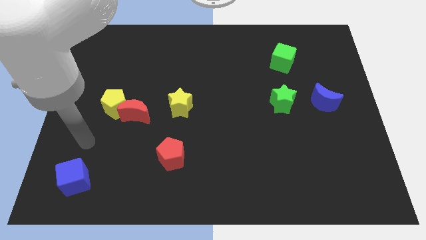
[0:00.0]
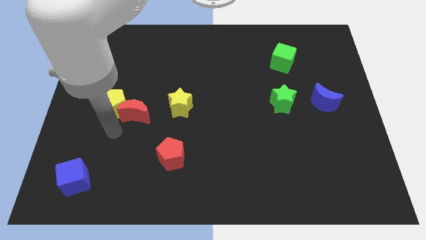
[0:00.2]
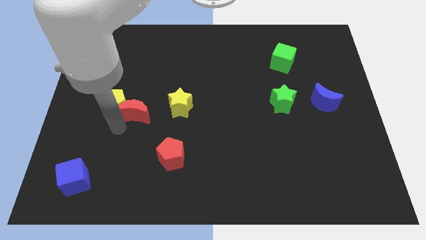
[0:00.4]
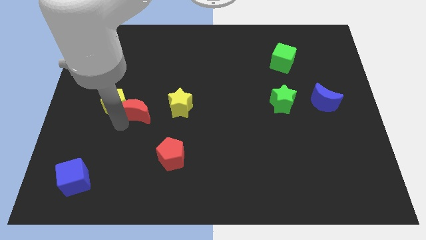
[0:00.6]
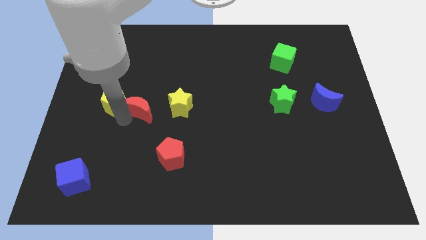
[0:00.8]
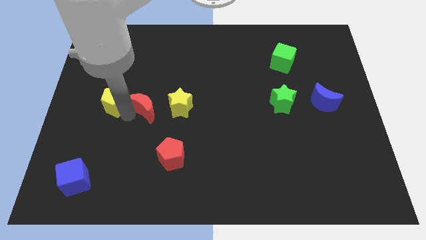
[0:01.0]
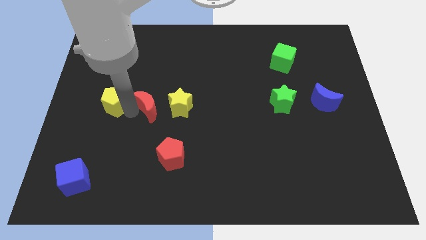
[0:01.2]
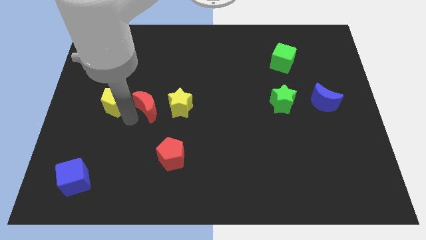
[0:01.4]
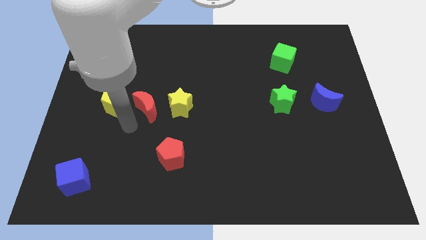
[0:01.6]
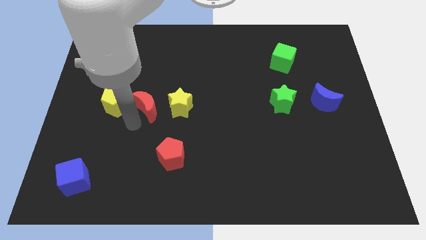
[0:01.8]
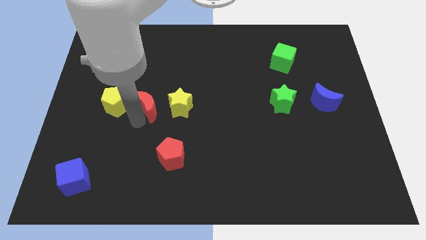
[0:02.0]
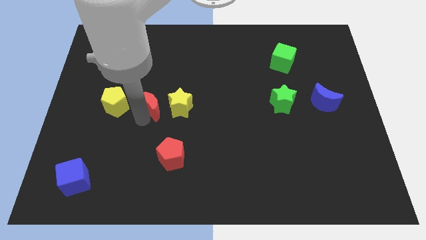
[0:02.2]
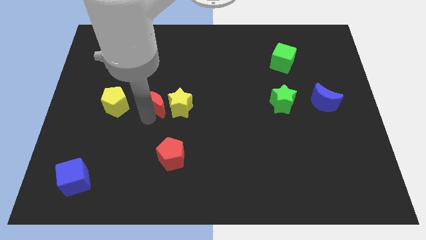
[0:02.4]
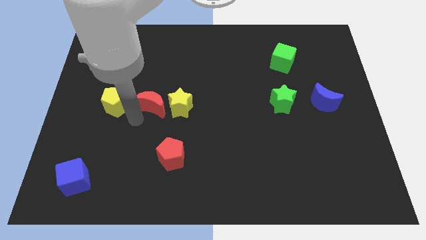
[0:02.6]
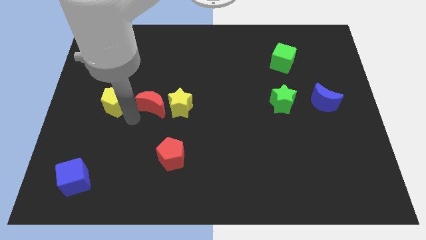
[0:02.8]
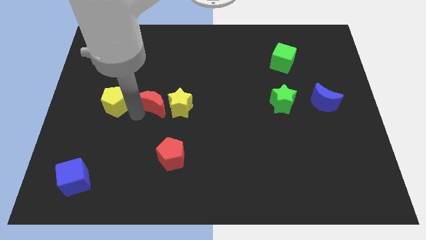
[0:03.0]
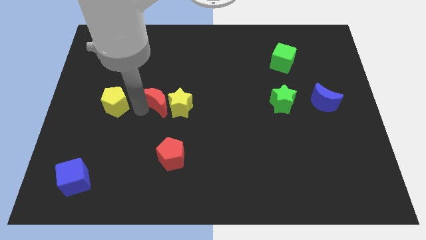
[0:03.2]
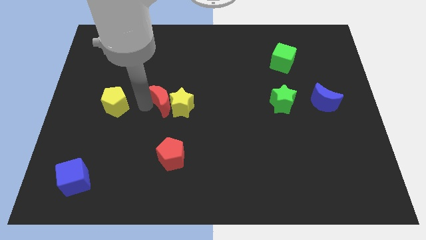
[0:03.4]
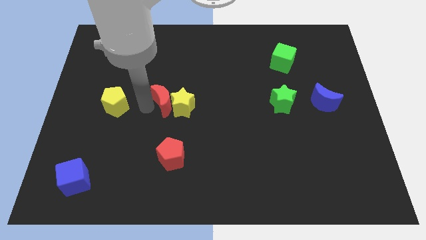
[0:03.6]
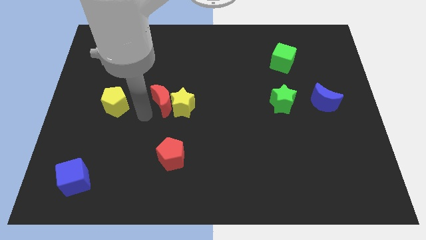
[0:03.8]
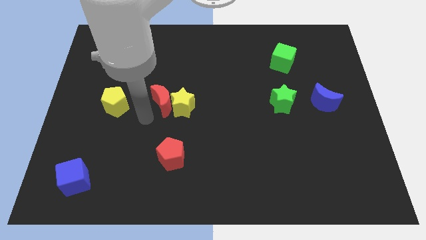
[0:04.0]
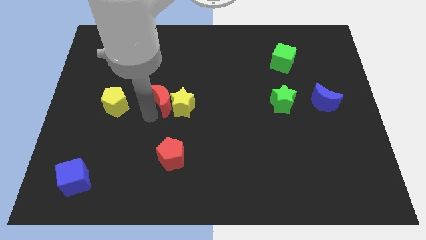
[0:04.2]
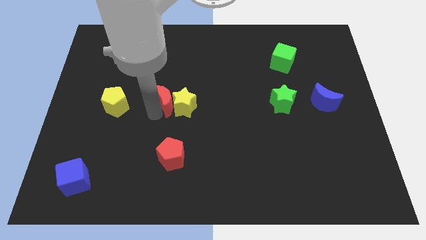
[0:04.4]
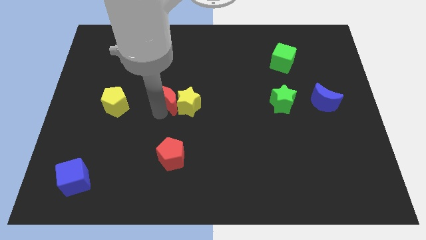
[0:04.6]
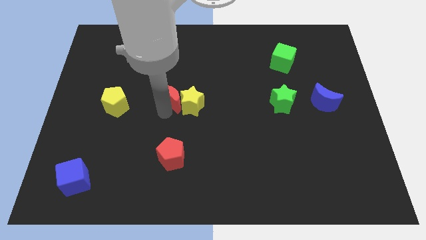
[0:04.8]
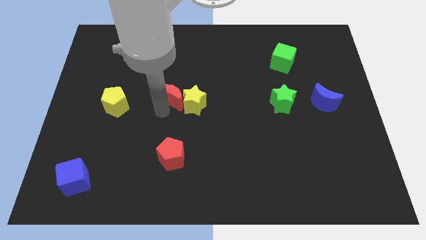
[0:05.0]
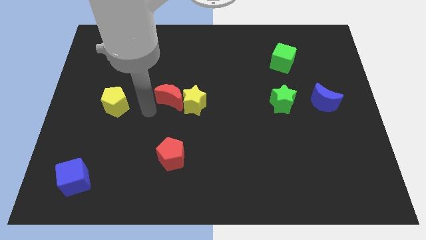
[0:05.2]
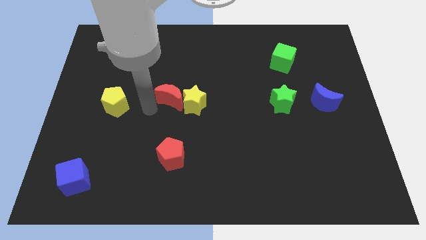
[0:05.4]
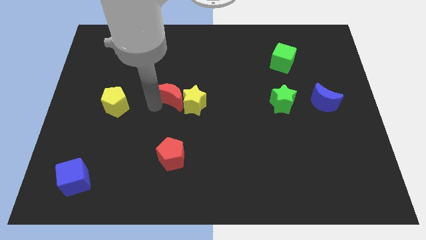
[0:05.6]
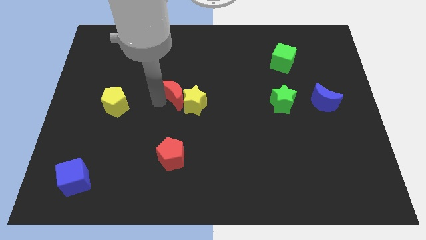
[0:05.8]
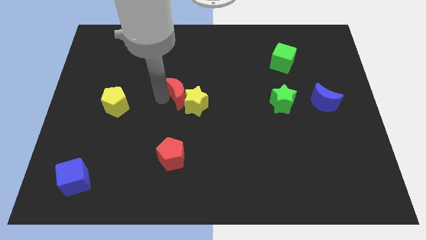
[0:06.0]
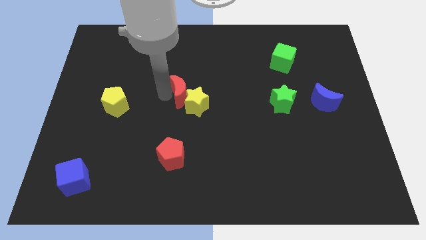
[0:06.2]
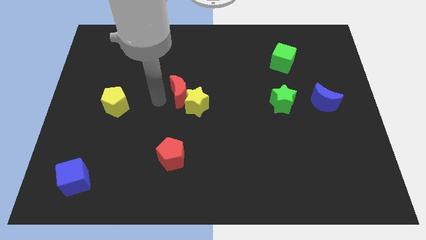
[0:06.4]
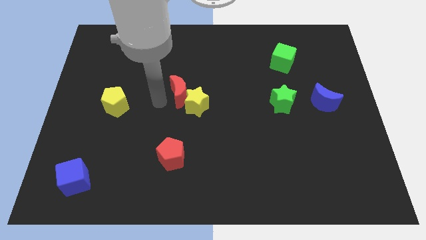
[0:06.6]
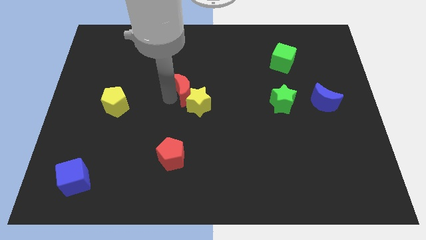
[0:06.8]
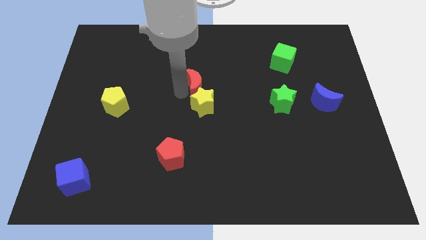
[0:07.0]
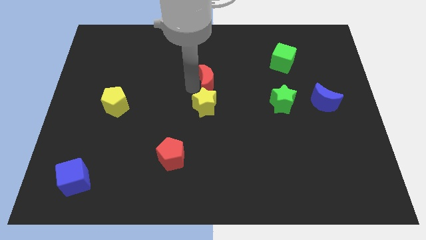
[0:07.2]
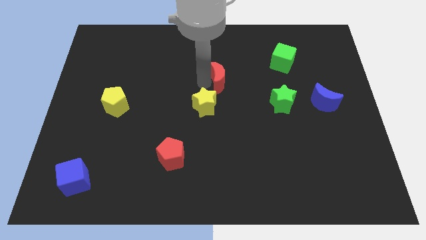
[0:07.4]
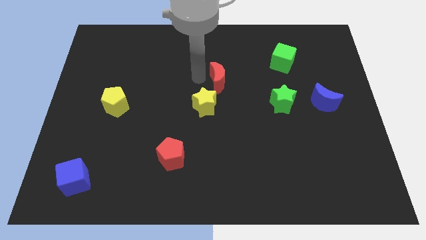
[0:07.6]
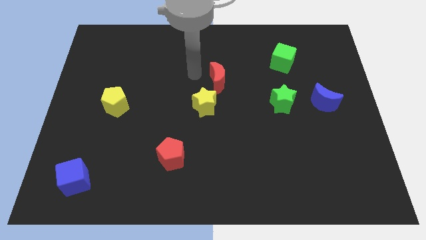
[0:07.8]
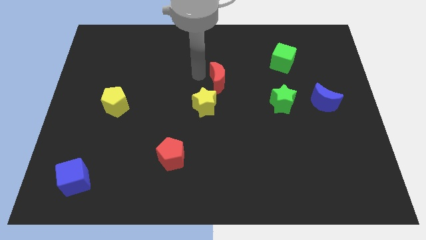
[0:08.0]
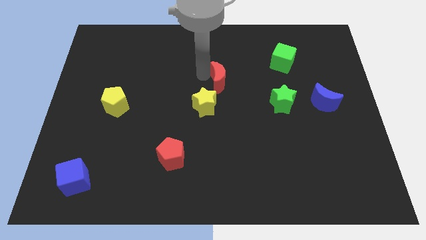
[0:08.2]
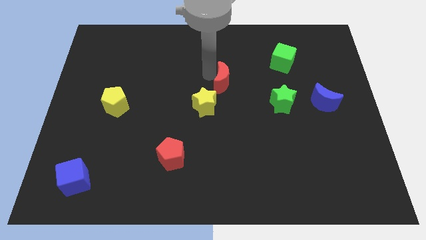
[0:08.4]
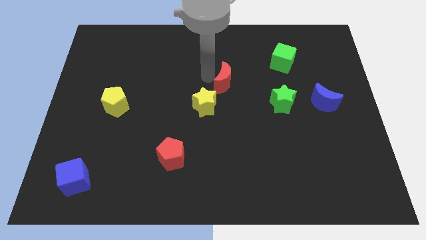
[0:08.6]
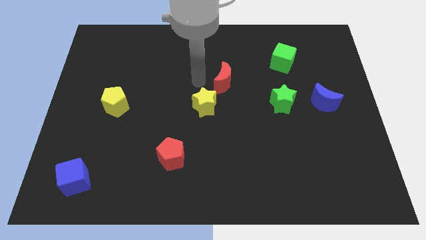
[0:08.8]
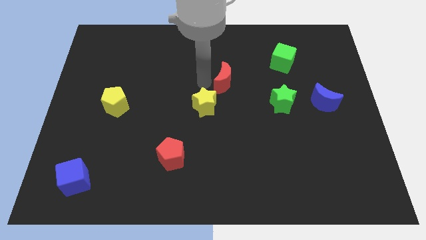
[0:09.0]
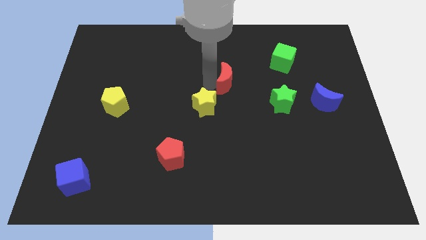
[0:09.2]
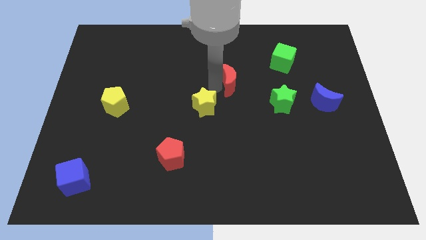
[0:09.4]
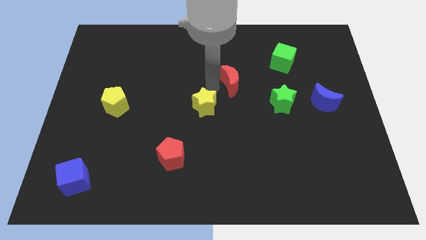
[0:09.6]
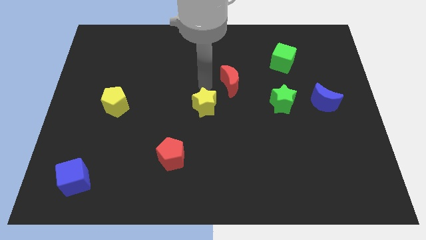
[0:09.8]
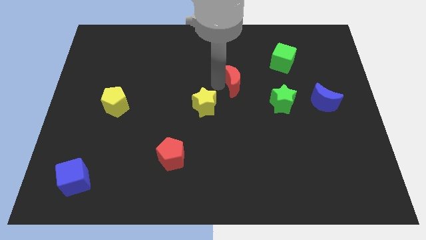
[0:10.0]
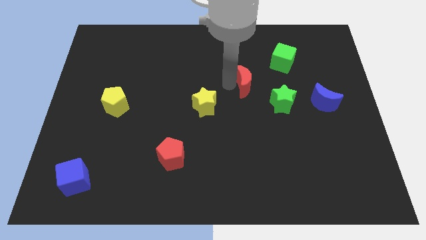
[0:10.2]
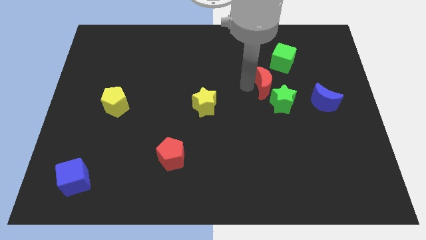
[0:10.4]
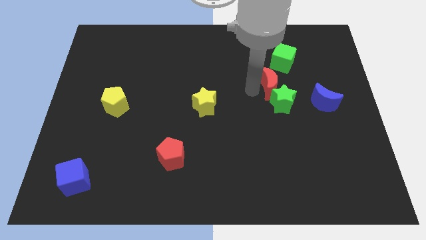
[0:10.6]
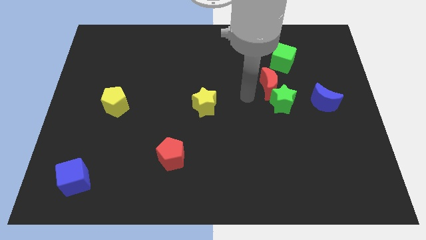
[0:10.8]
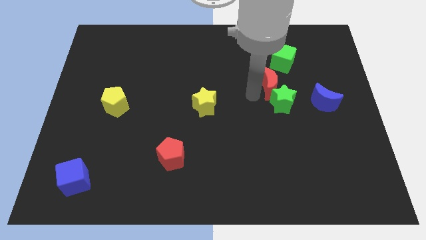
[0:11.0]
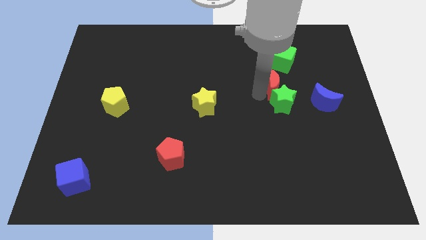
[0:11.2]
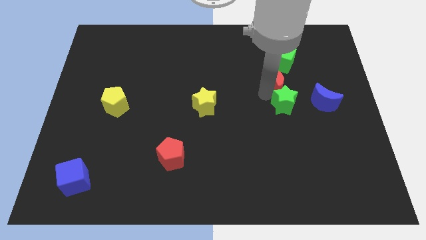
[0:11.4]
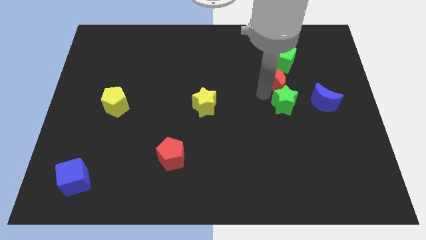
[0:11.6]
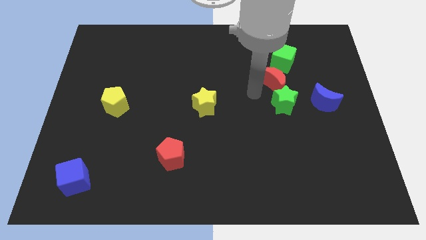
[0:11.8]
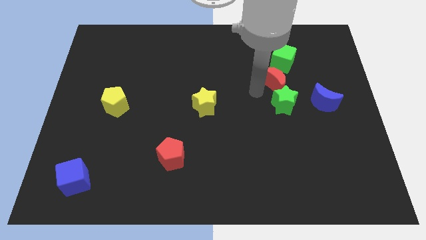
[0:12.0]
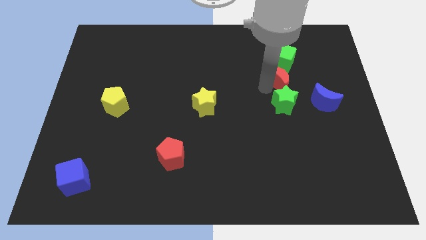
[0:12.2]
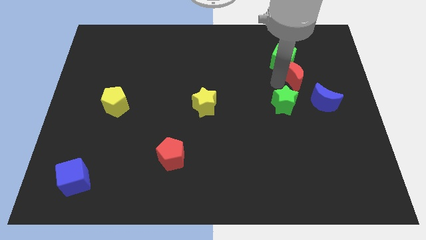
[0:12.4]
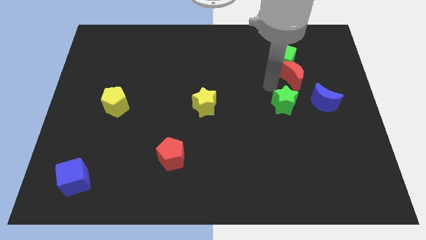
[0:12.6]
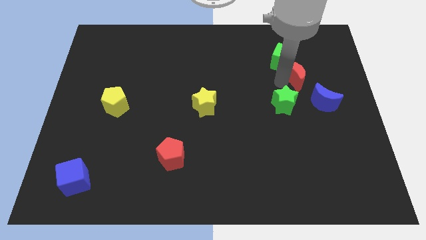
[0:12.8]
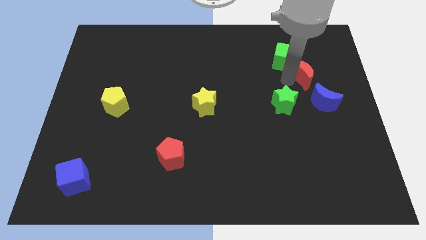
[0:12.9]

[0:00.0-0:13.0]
move the red moon to the top side of the blue moon

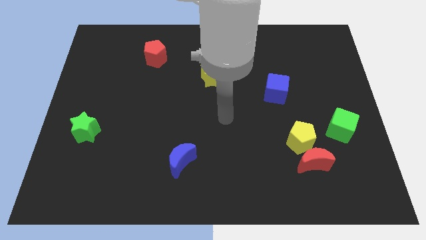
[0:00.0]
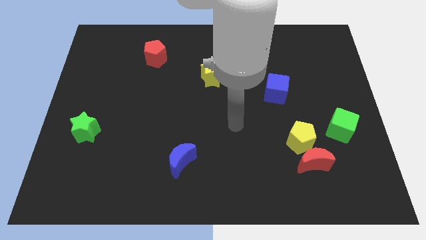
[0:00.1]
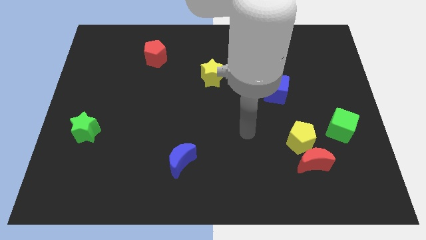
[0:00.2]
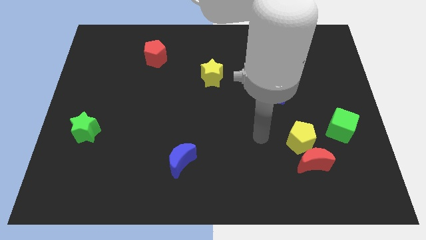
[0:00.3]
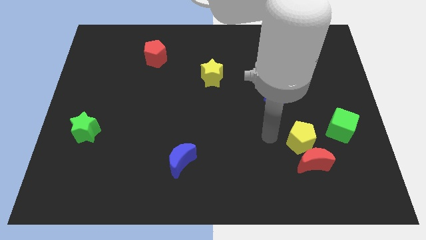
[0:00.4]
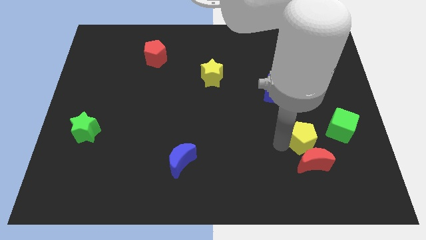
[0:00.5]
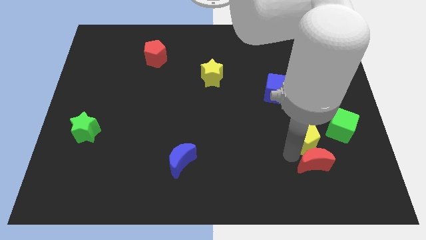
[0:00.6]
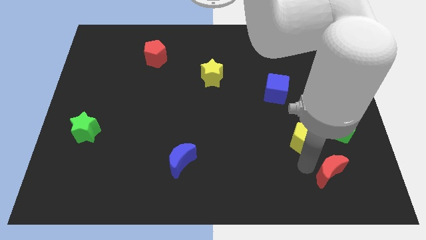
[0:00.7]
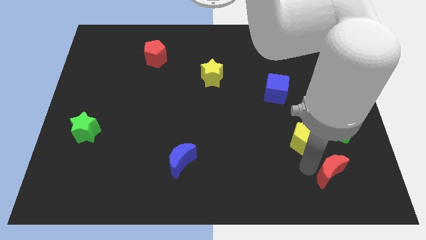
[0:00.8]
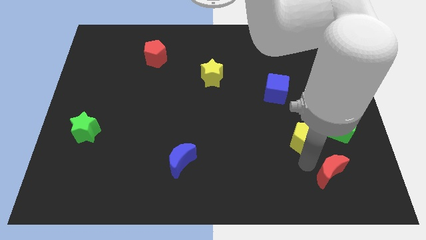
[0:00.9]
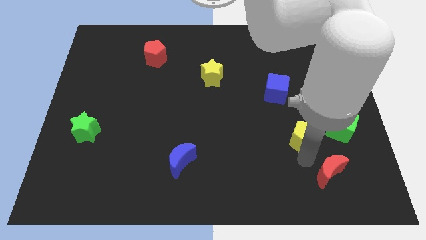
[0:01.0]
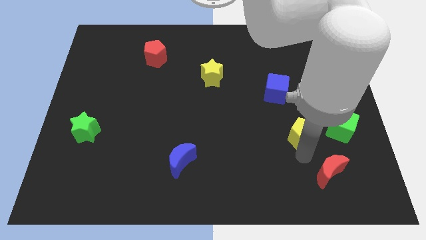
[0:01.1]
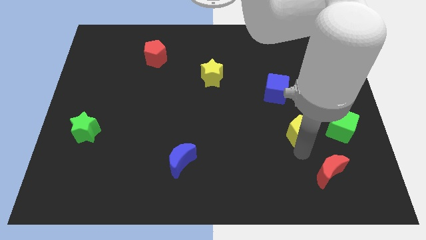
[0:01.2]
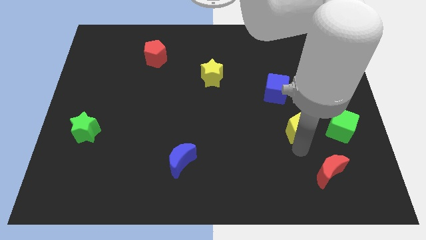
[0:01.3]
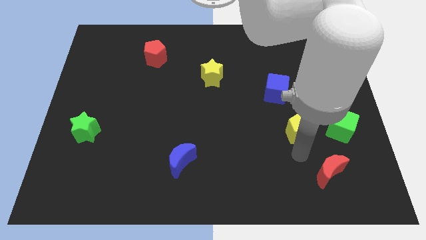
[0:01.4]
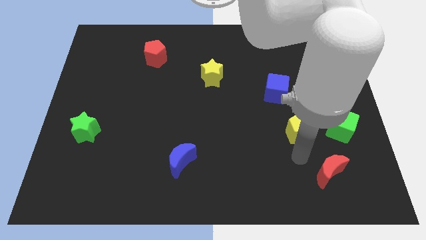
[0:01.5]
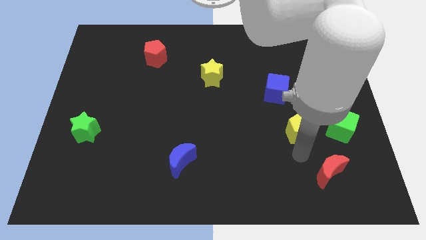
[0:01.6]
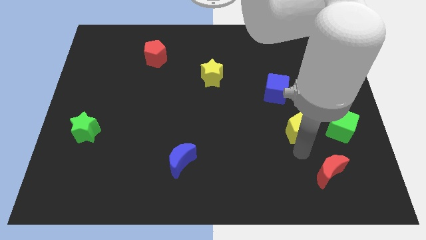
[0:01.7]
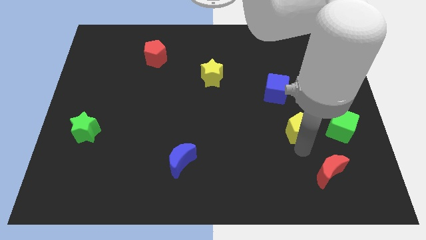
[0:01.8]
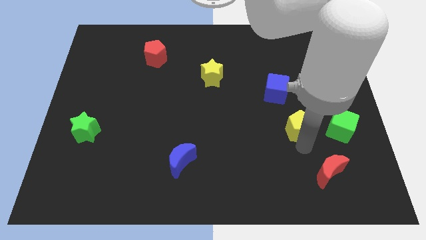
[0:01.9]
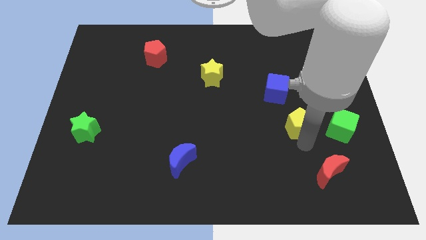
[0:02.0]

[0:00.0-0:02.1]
move the yellow pentagon to the bottom right of the blue cube
